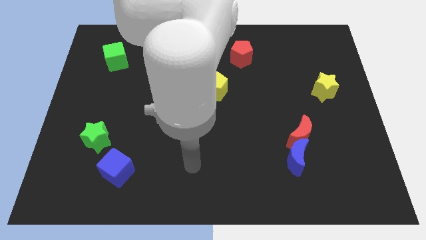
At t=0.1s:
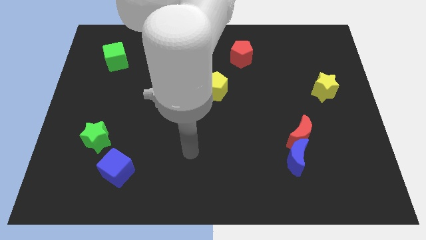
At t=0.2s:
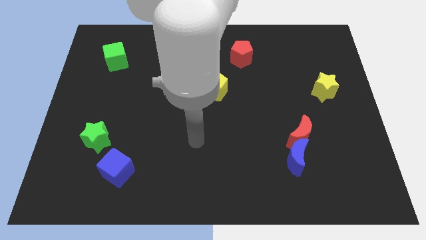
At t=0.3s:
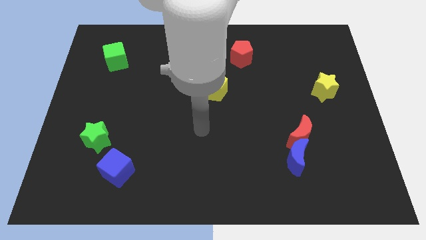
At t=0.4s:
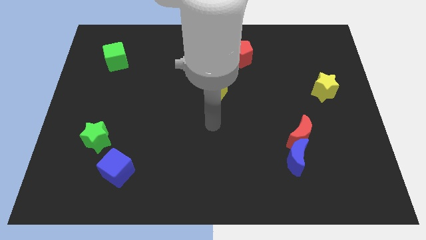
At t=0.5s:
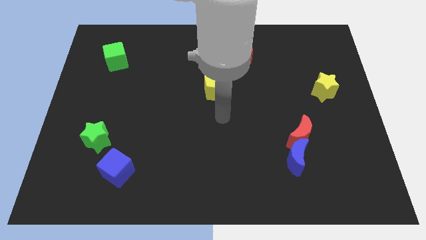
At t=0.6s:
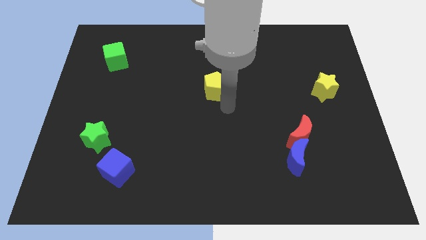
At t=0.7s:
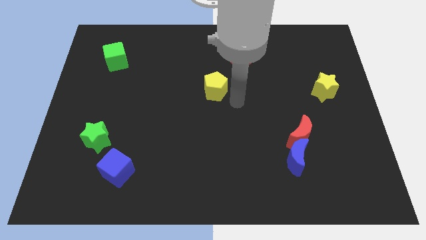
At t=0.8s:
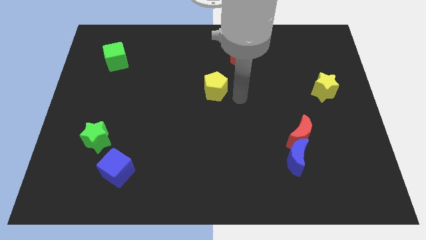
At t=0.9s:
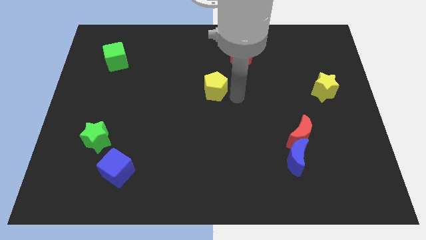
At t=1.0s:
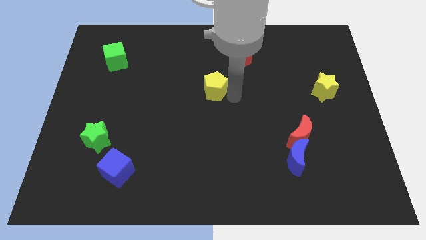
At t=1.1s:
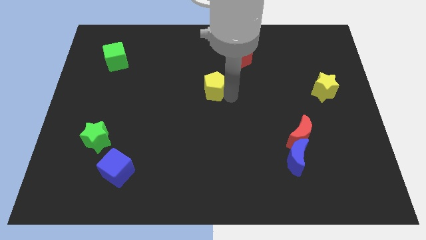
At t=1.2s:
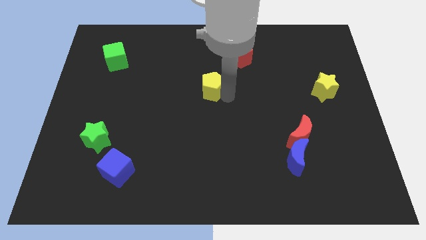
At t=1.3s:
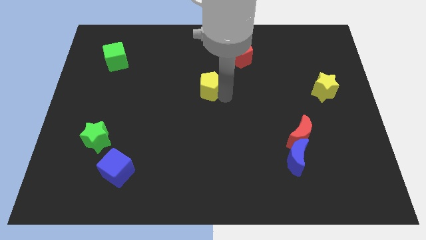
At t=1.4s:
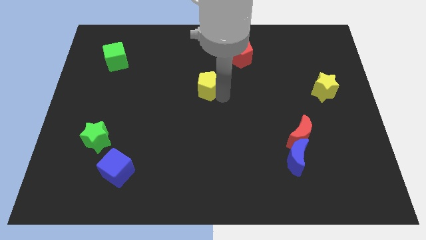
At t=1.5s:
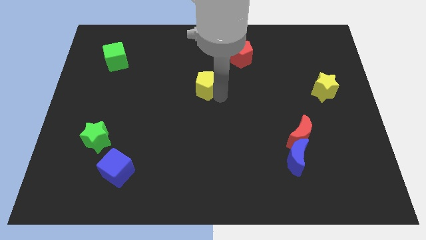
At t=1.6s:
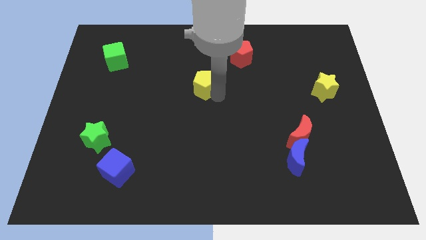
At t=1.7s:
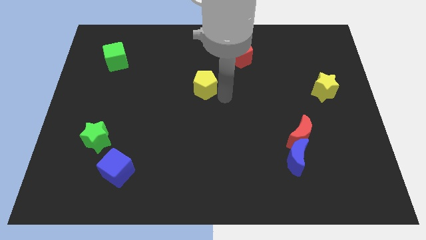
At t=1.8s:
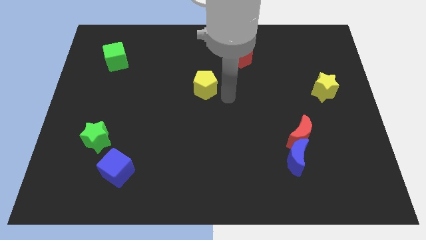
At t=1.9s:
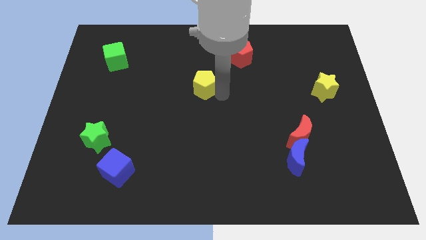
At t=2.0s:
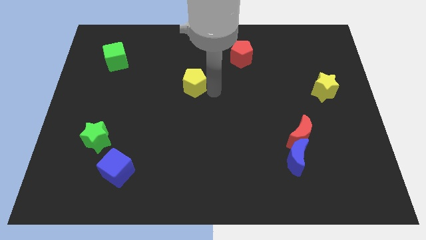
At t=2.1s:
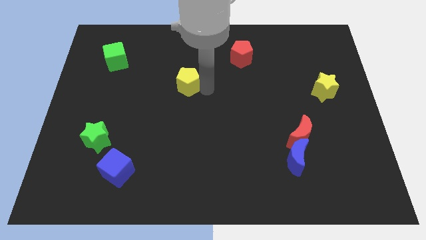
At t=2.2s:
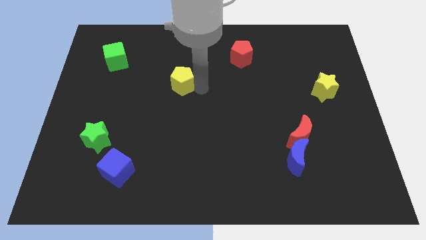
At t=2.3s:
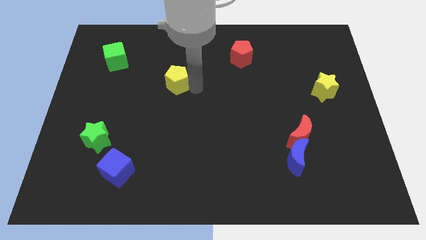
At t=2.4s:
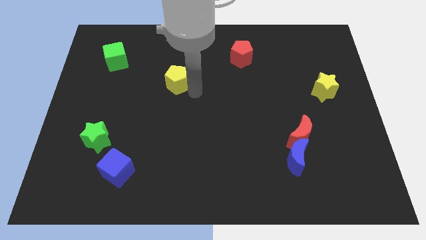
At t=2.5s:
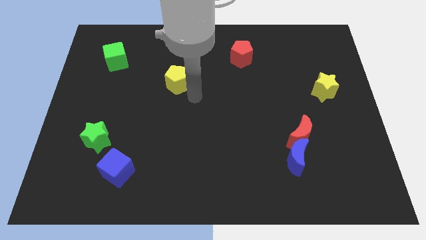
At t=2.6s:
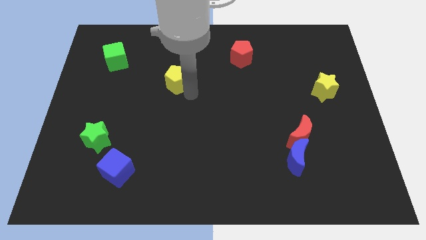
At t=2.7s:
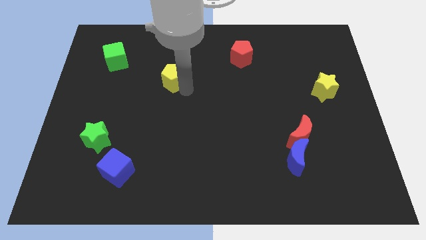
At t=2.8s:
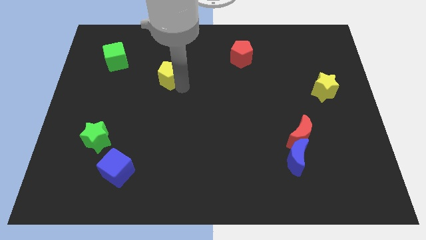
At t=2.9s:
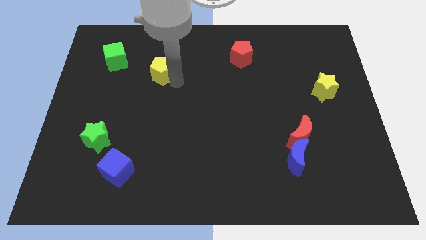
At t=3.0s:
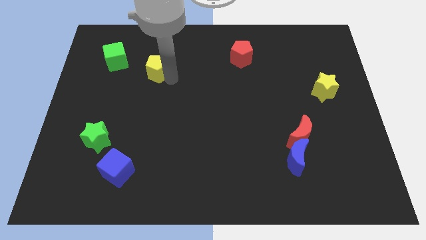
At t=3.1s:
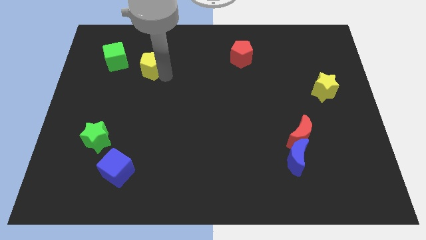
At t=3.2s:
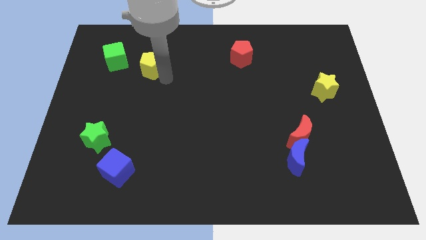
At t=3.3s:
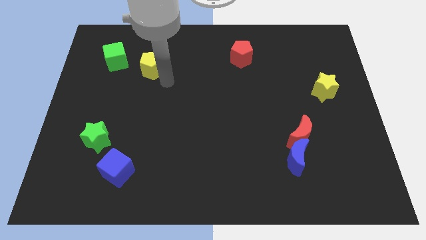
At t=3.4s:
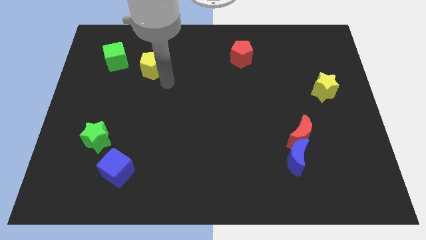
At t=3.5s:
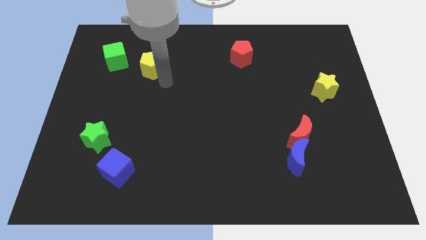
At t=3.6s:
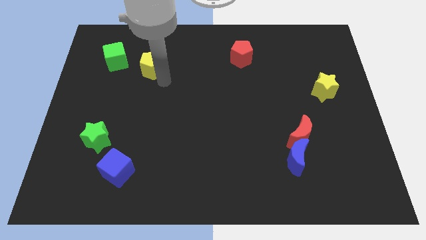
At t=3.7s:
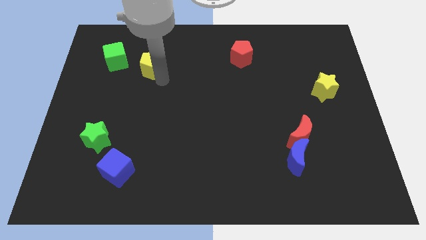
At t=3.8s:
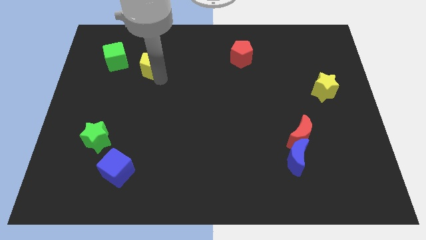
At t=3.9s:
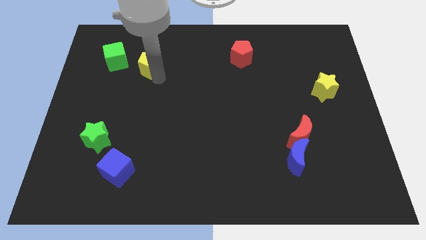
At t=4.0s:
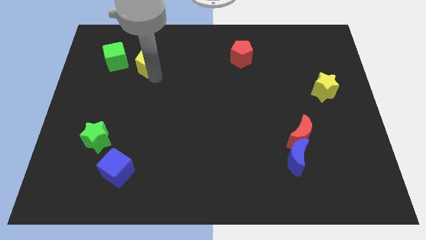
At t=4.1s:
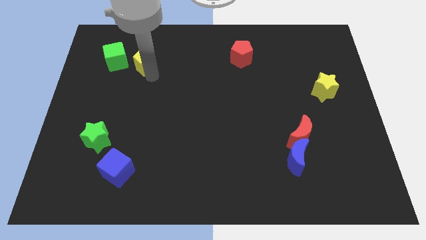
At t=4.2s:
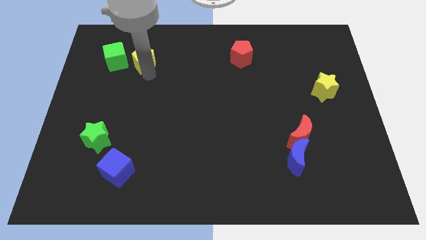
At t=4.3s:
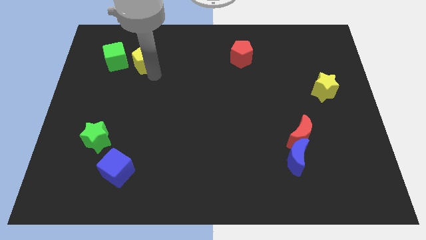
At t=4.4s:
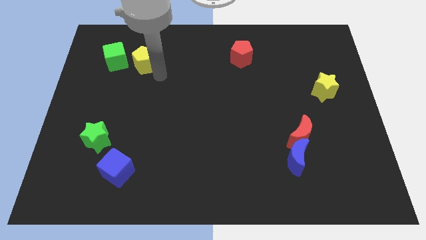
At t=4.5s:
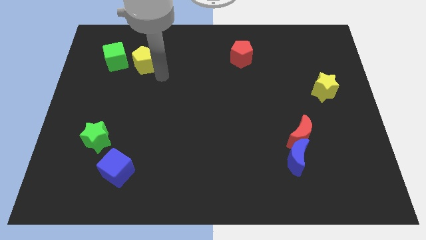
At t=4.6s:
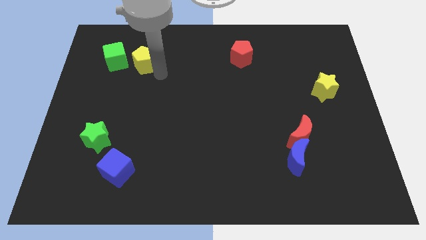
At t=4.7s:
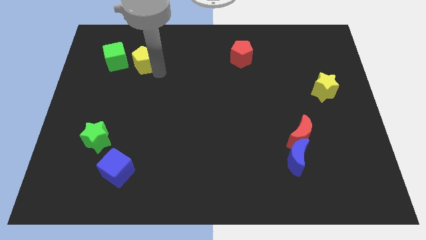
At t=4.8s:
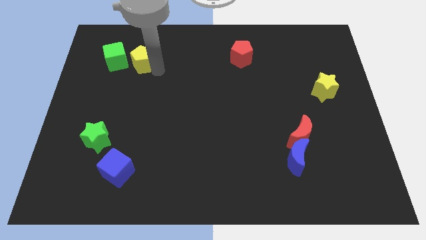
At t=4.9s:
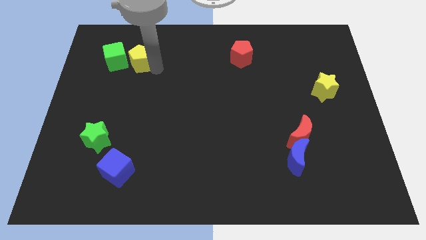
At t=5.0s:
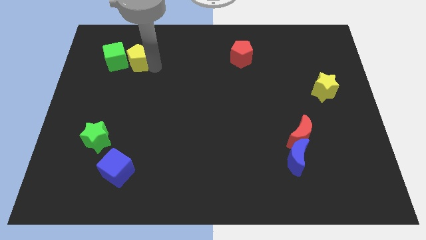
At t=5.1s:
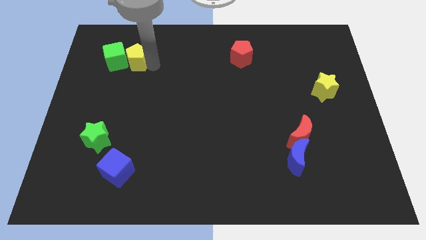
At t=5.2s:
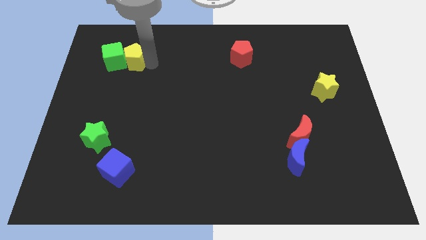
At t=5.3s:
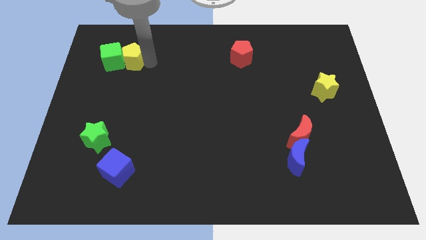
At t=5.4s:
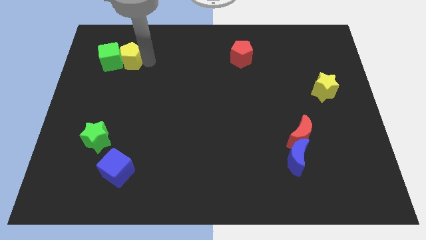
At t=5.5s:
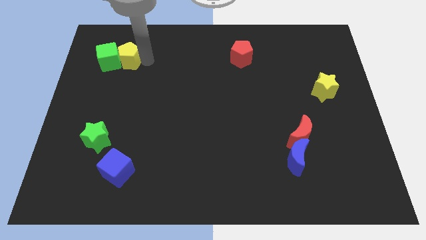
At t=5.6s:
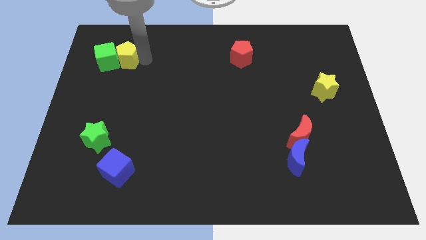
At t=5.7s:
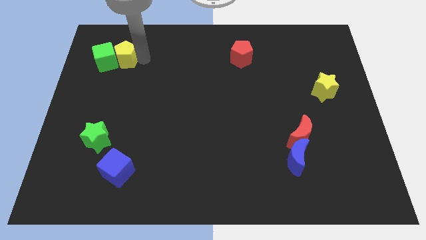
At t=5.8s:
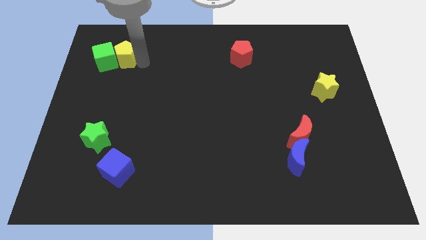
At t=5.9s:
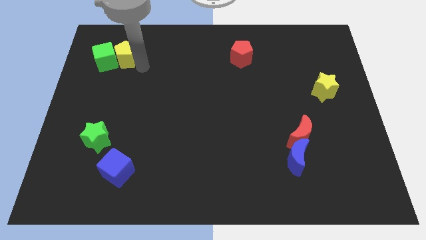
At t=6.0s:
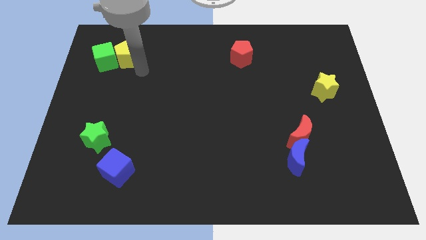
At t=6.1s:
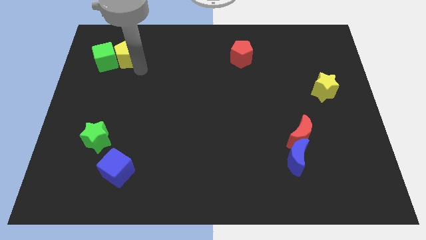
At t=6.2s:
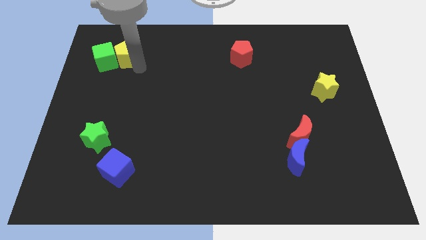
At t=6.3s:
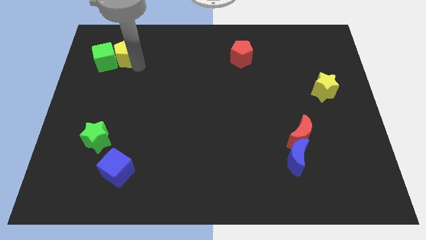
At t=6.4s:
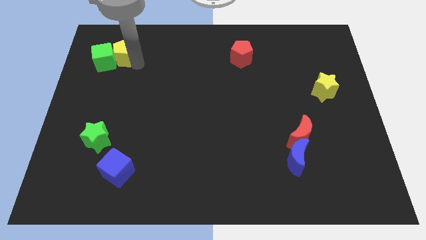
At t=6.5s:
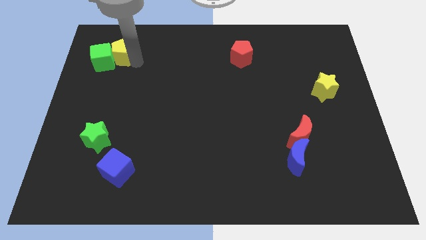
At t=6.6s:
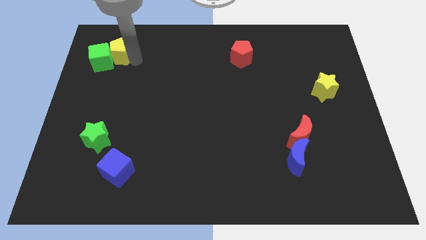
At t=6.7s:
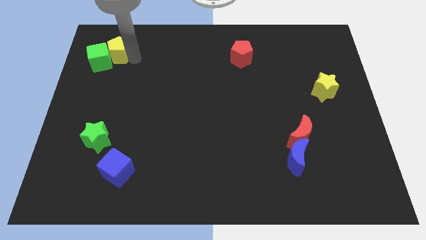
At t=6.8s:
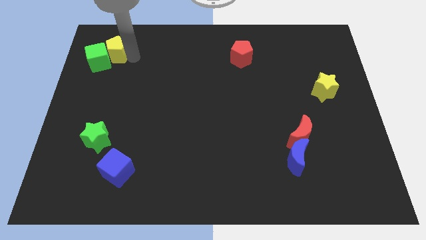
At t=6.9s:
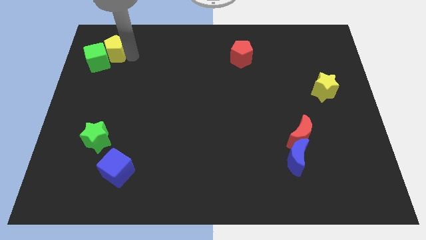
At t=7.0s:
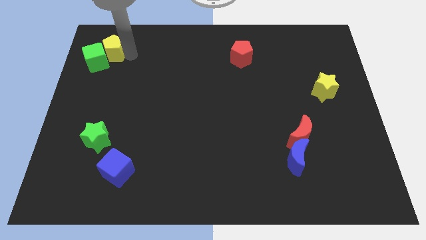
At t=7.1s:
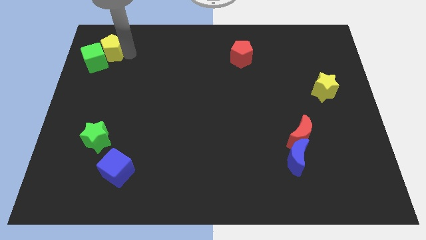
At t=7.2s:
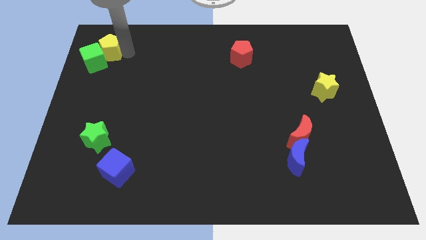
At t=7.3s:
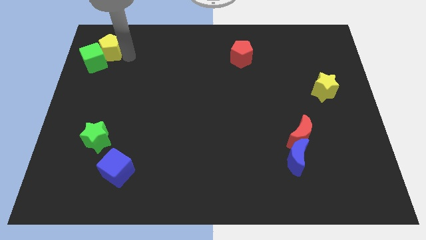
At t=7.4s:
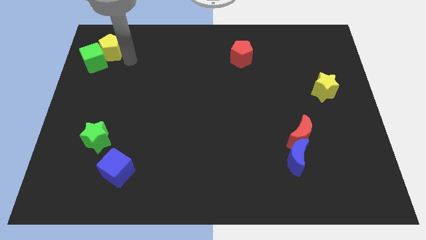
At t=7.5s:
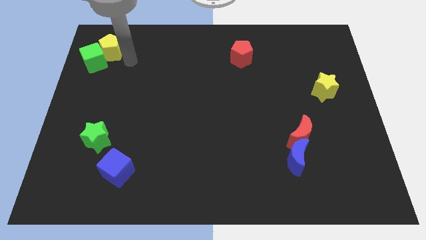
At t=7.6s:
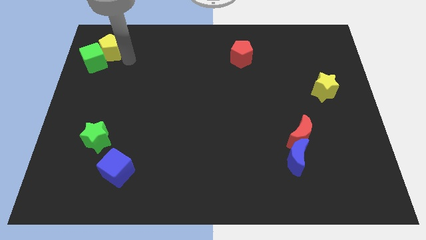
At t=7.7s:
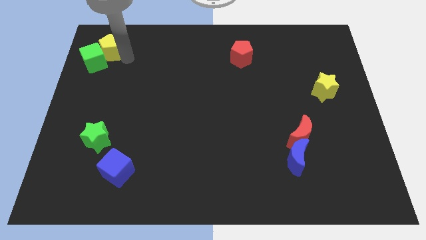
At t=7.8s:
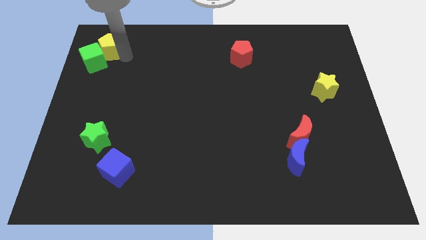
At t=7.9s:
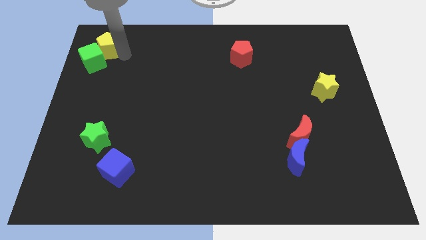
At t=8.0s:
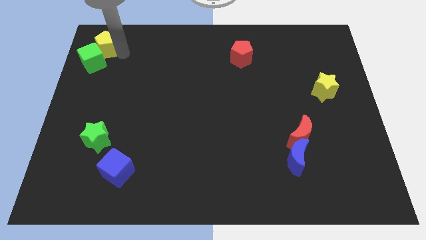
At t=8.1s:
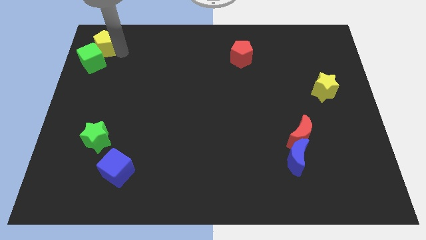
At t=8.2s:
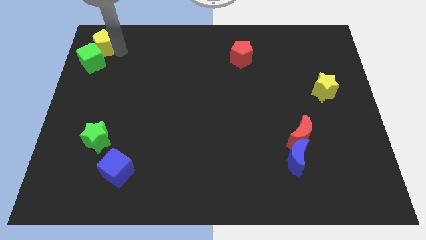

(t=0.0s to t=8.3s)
put the yellow pentagon to the top left of the board
